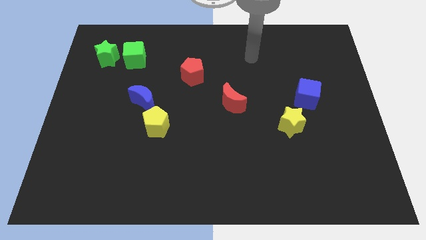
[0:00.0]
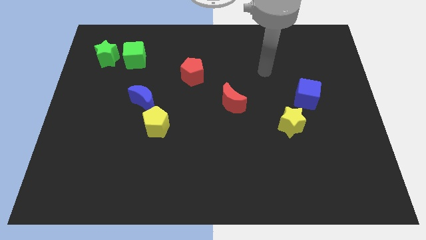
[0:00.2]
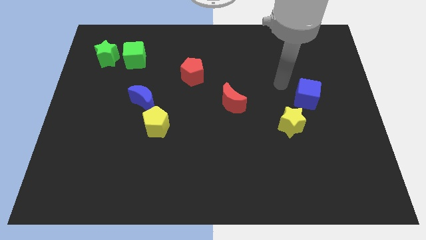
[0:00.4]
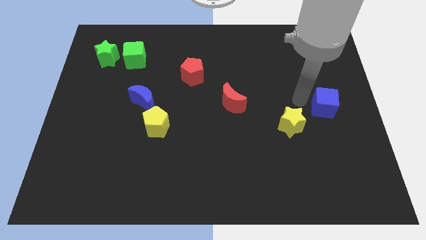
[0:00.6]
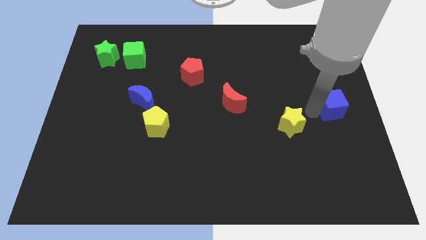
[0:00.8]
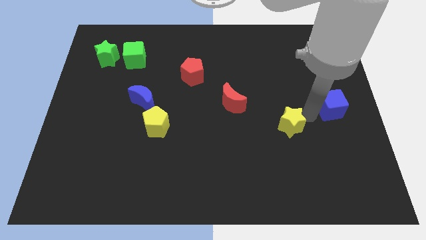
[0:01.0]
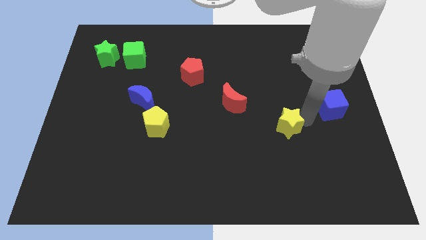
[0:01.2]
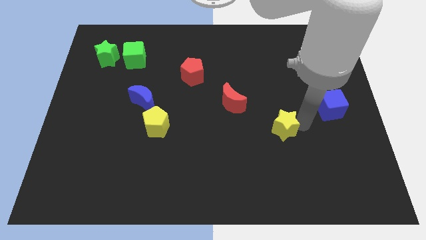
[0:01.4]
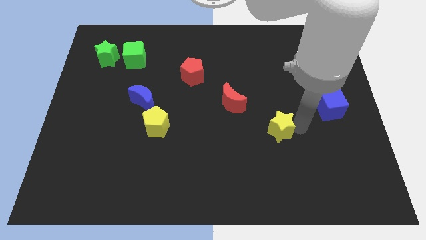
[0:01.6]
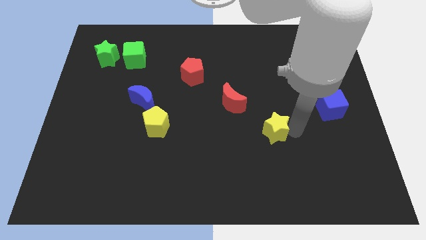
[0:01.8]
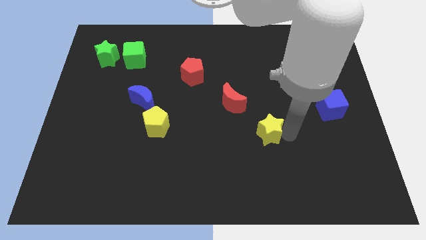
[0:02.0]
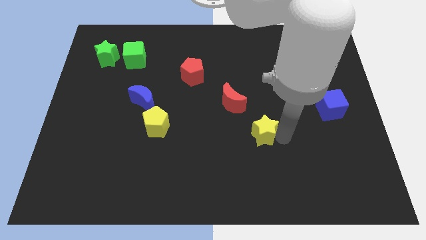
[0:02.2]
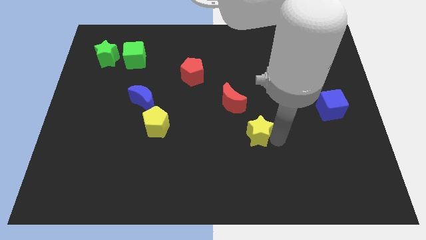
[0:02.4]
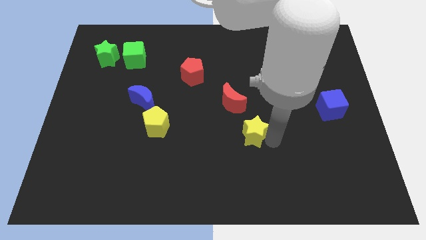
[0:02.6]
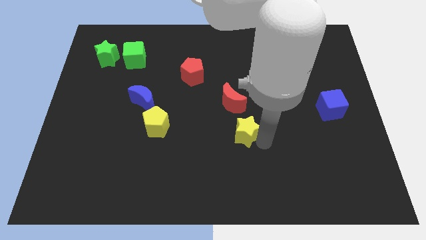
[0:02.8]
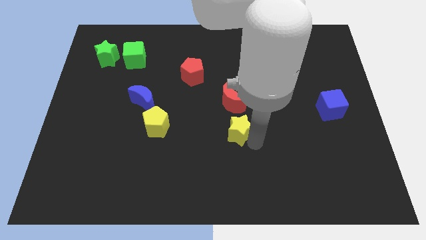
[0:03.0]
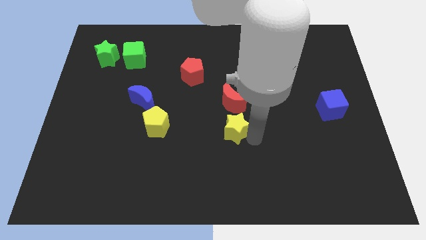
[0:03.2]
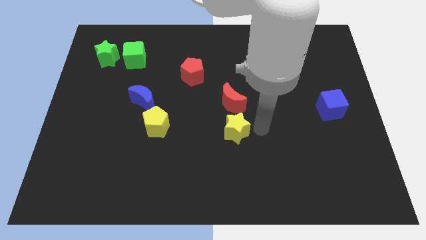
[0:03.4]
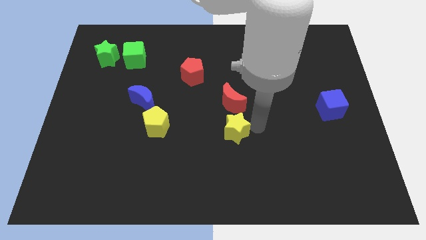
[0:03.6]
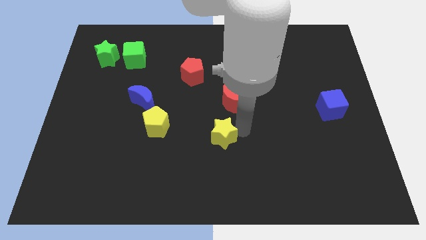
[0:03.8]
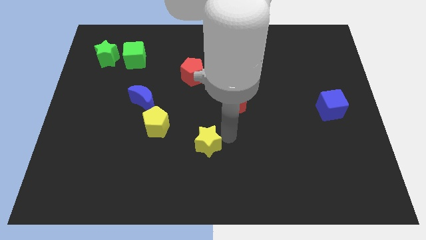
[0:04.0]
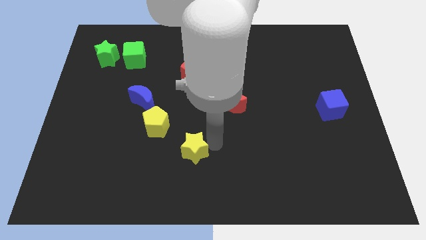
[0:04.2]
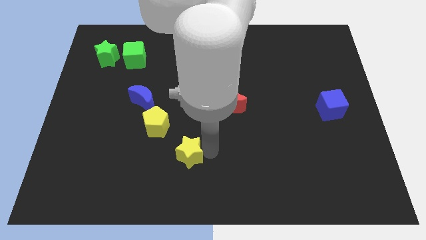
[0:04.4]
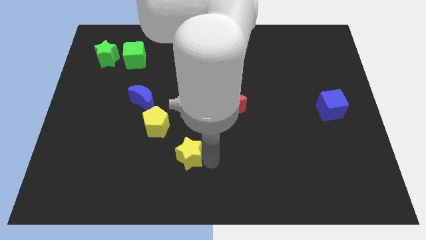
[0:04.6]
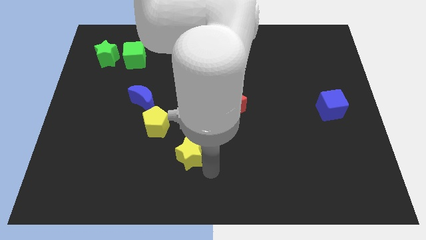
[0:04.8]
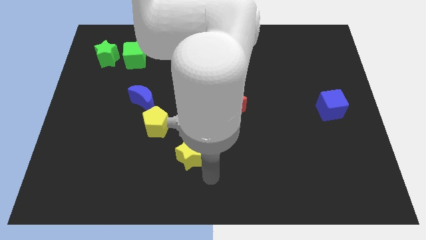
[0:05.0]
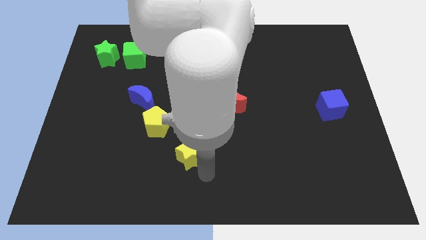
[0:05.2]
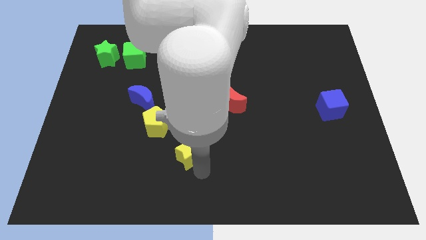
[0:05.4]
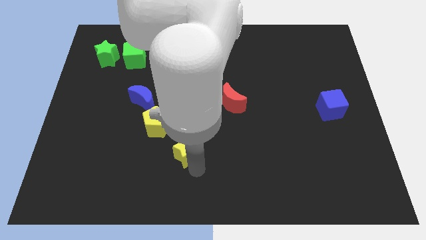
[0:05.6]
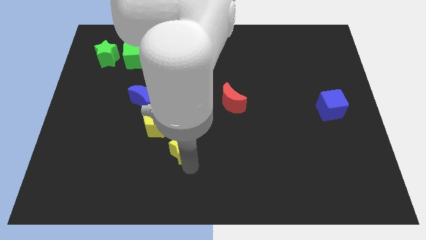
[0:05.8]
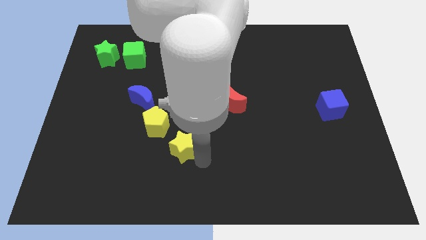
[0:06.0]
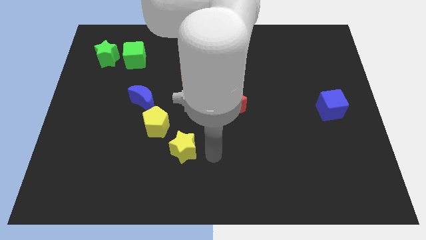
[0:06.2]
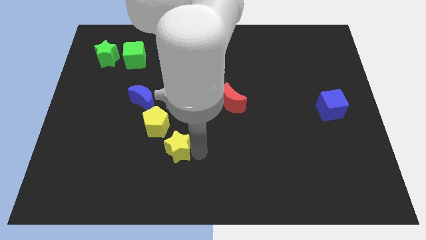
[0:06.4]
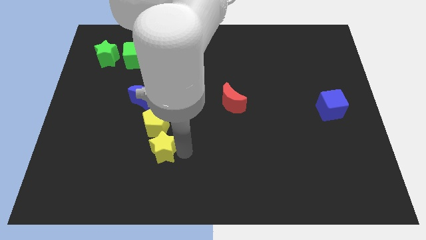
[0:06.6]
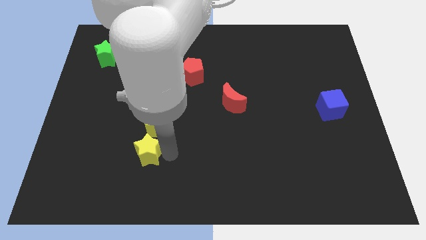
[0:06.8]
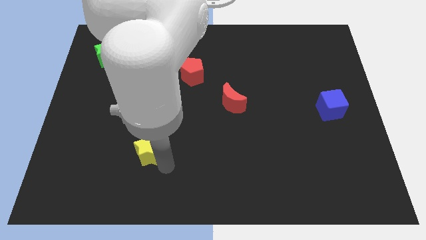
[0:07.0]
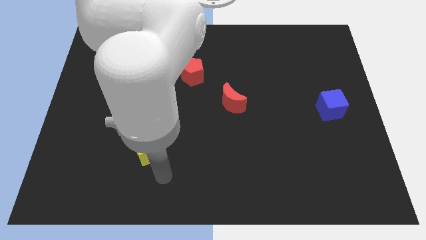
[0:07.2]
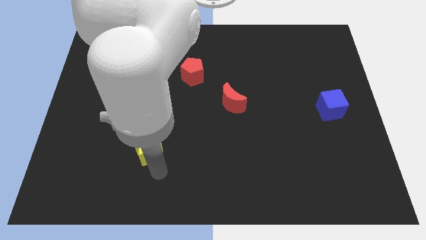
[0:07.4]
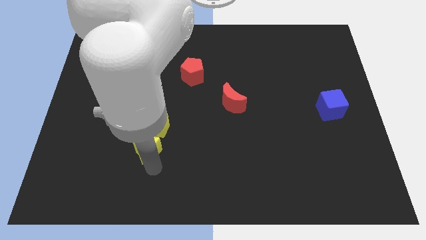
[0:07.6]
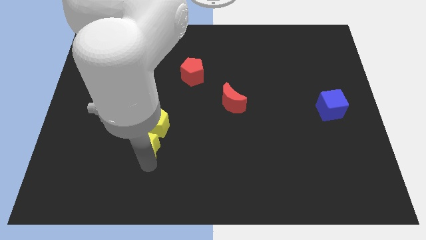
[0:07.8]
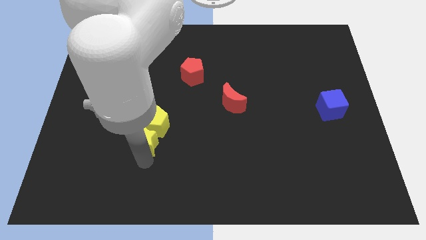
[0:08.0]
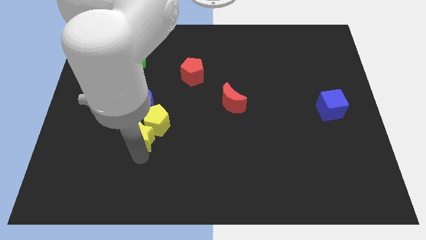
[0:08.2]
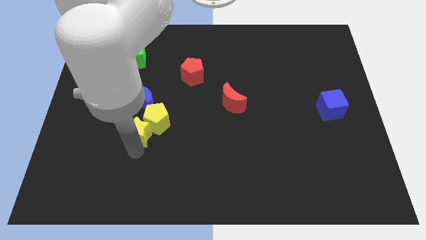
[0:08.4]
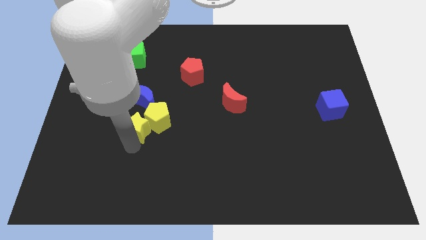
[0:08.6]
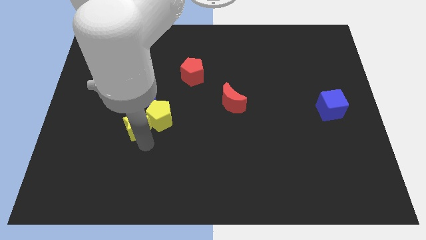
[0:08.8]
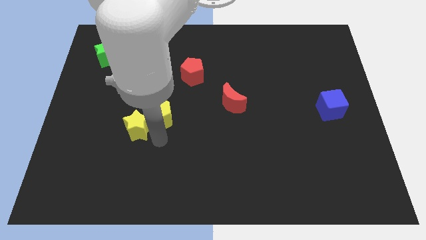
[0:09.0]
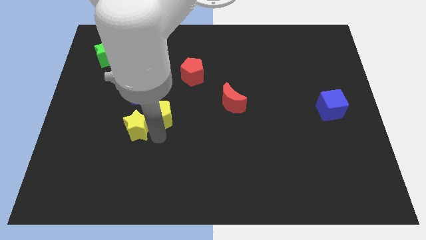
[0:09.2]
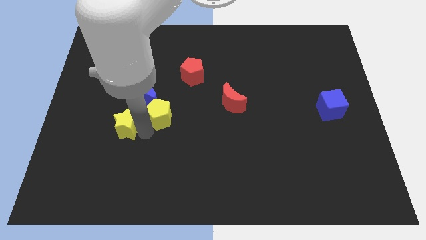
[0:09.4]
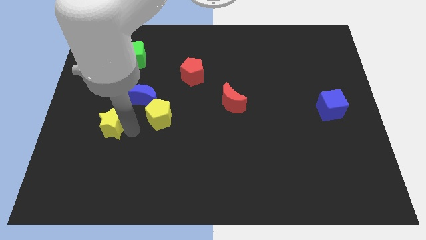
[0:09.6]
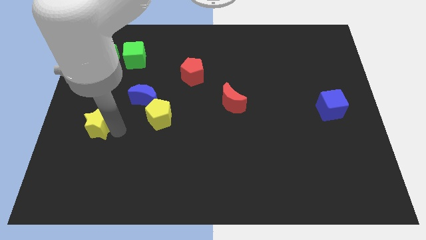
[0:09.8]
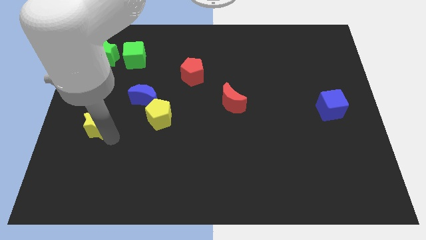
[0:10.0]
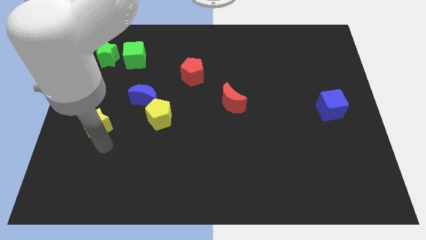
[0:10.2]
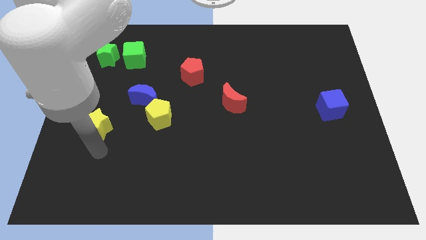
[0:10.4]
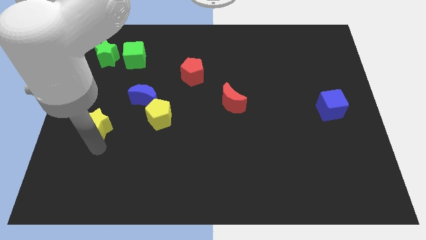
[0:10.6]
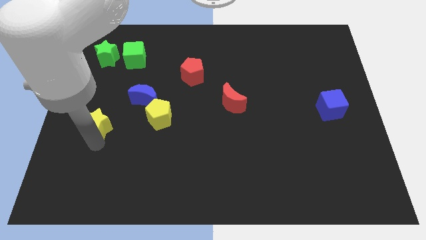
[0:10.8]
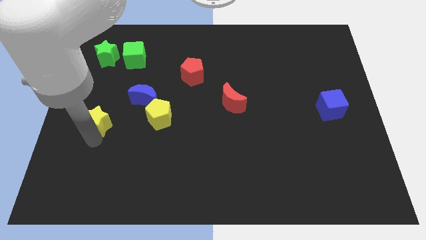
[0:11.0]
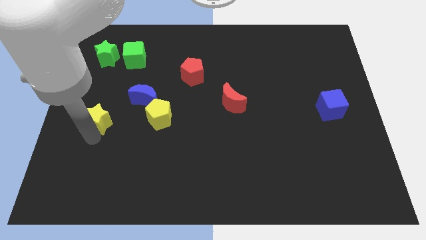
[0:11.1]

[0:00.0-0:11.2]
put the yellow star to the left side
